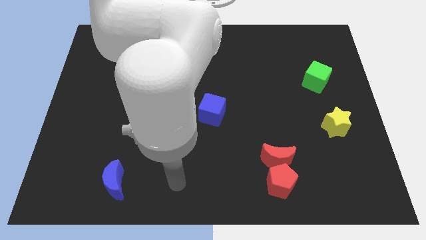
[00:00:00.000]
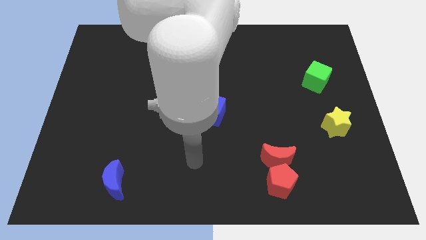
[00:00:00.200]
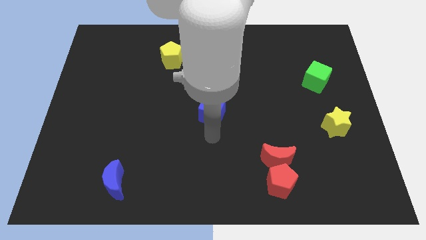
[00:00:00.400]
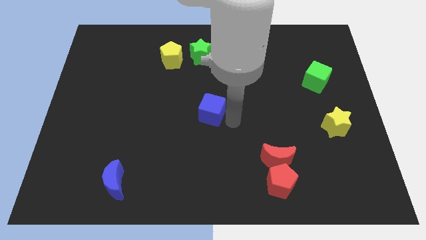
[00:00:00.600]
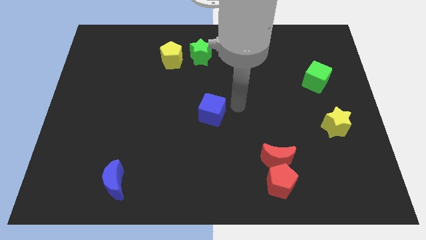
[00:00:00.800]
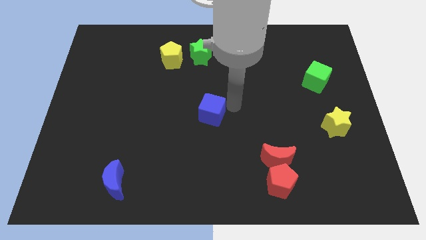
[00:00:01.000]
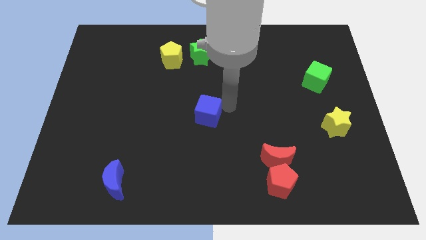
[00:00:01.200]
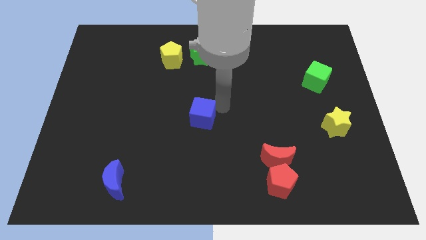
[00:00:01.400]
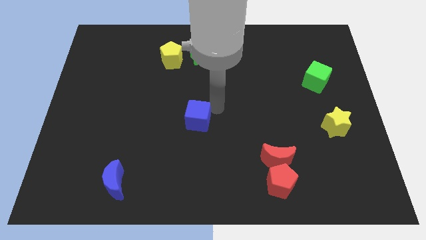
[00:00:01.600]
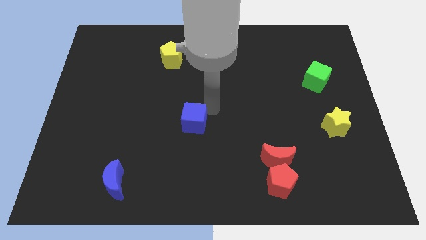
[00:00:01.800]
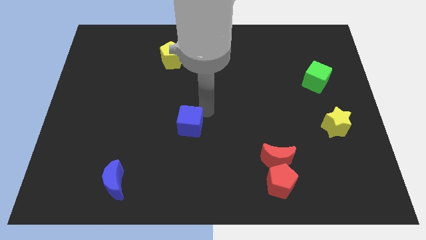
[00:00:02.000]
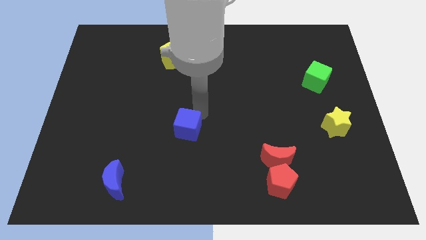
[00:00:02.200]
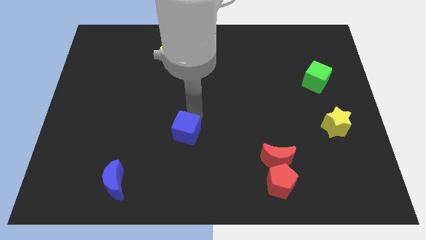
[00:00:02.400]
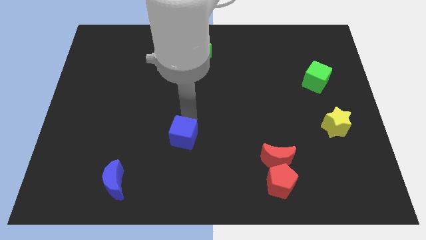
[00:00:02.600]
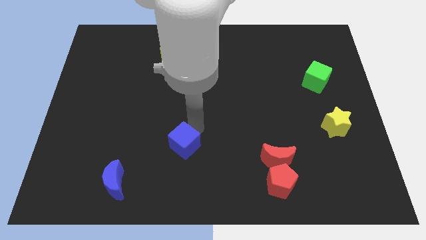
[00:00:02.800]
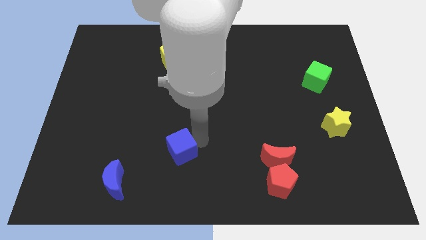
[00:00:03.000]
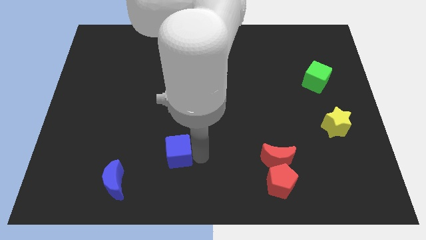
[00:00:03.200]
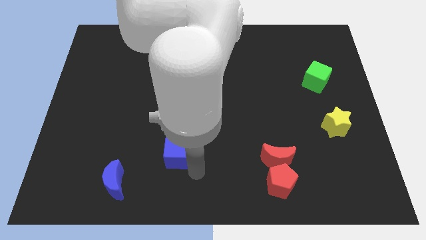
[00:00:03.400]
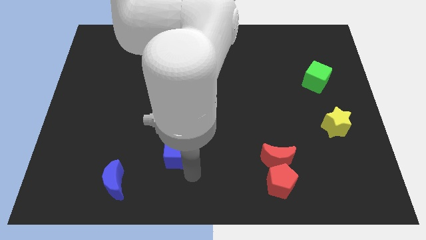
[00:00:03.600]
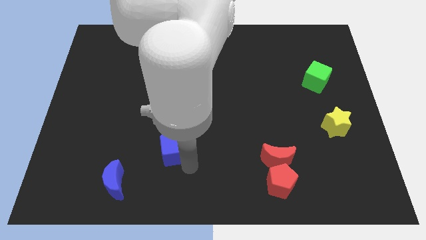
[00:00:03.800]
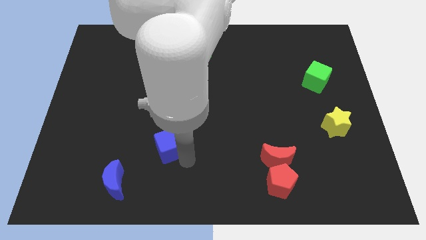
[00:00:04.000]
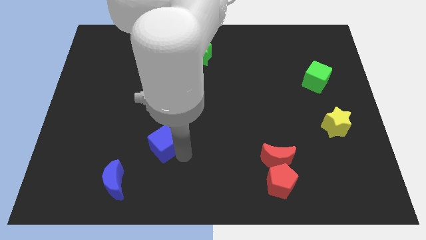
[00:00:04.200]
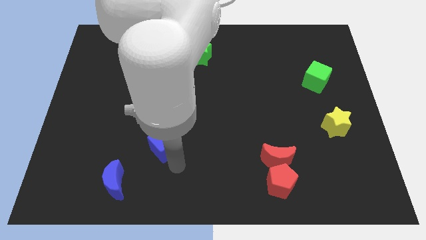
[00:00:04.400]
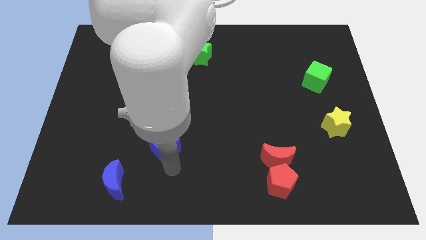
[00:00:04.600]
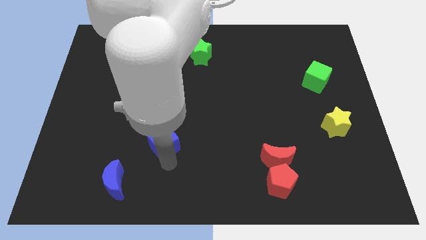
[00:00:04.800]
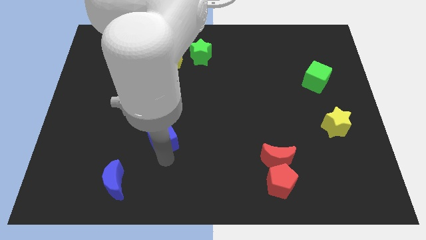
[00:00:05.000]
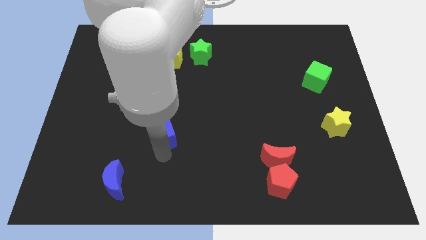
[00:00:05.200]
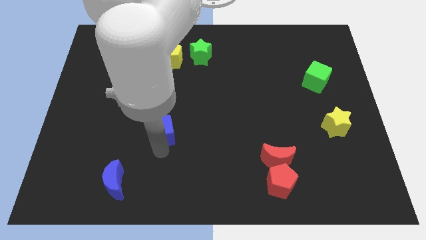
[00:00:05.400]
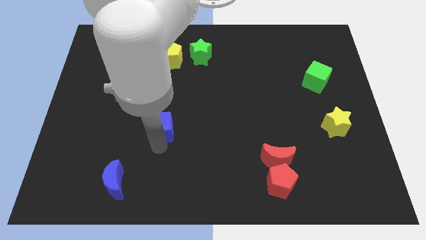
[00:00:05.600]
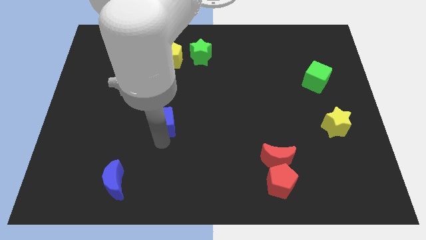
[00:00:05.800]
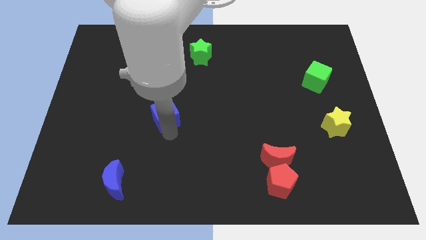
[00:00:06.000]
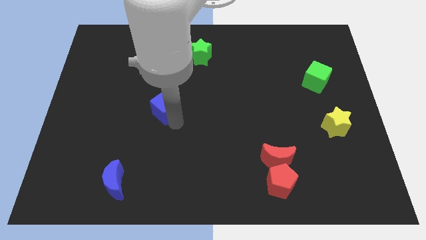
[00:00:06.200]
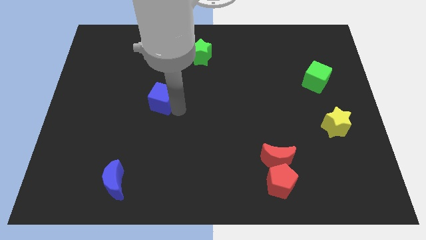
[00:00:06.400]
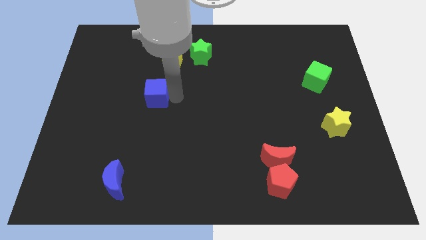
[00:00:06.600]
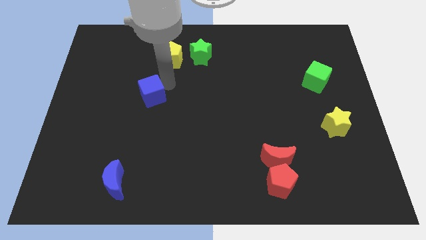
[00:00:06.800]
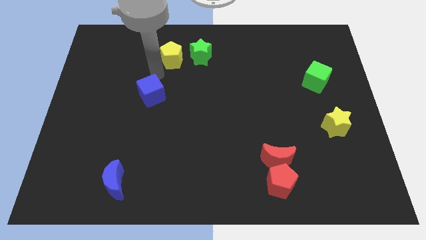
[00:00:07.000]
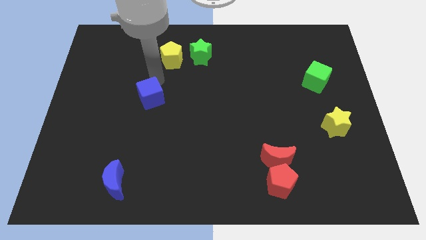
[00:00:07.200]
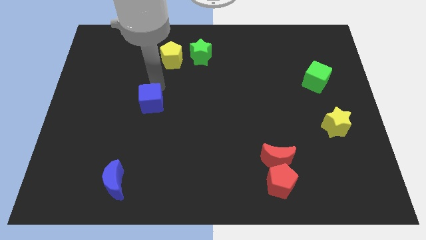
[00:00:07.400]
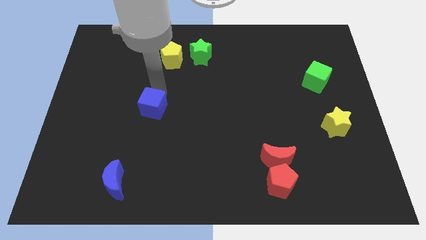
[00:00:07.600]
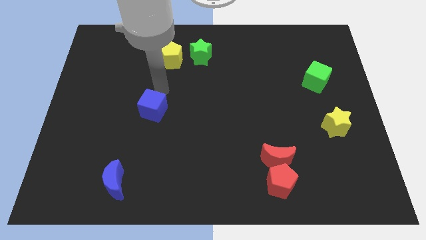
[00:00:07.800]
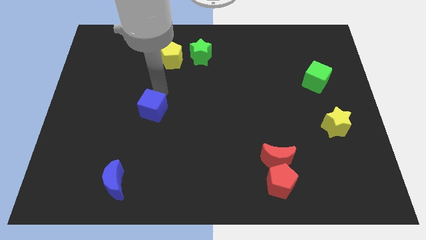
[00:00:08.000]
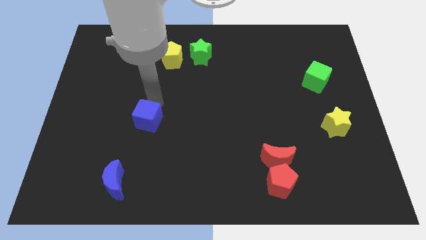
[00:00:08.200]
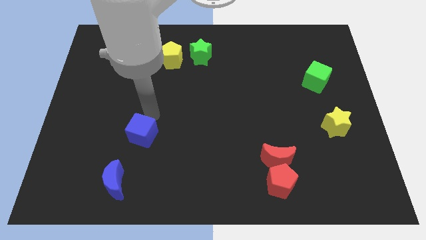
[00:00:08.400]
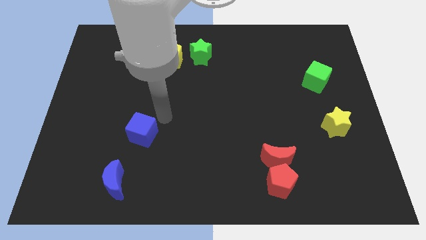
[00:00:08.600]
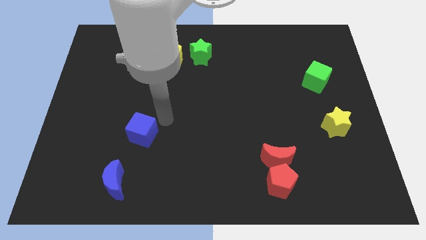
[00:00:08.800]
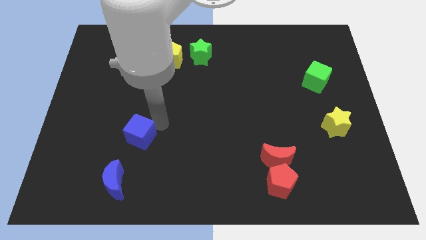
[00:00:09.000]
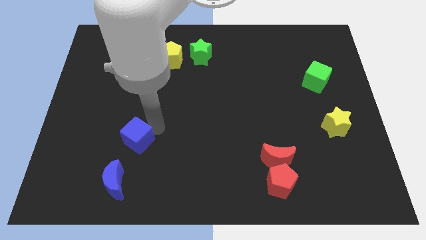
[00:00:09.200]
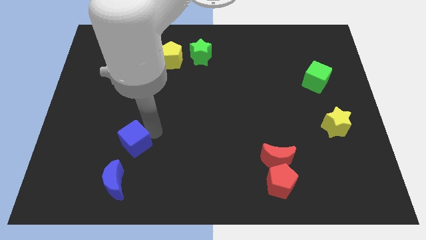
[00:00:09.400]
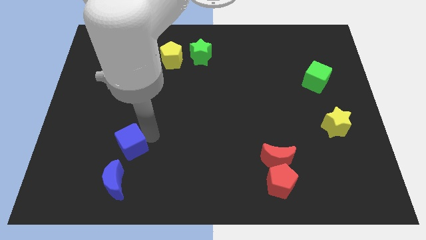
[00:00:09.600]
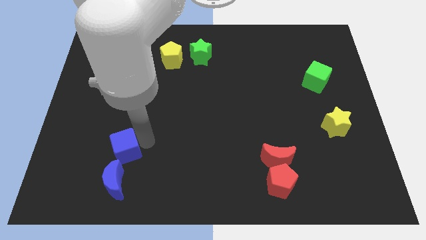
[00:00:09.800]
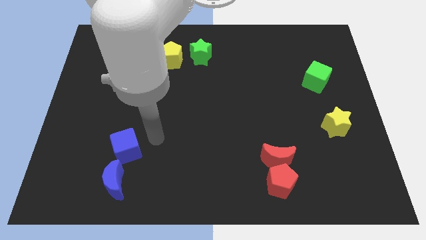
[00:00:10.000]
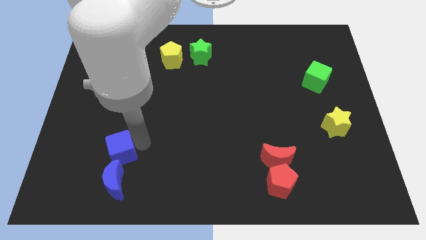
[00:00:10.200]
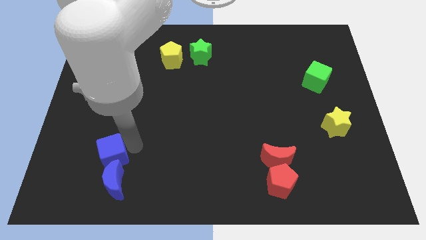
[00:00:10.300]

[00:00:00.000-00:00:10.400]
slide the blue cube to the top left of the blue moon

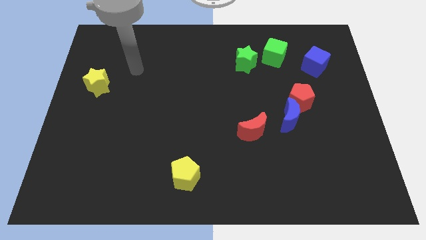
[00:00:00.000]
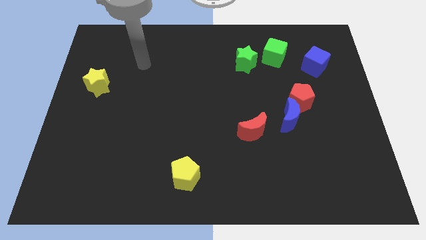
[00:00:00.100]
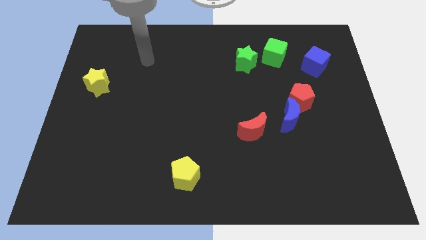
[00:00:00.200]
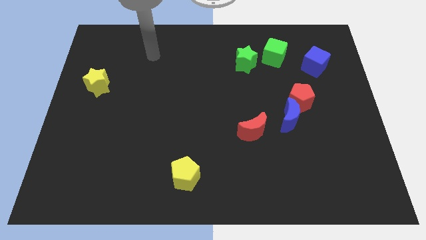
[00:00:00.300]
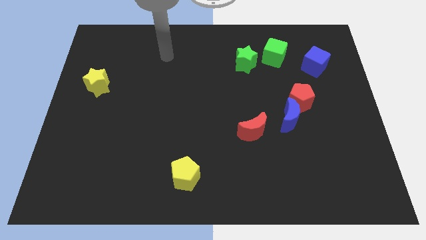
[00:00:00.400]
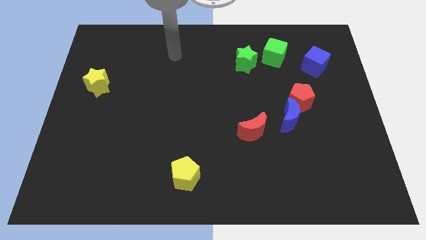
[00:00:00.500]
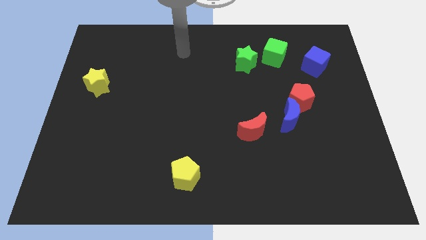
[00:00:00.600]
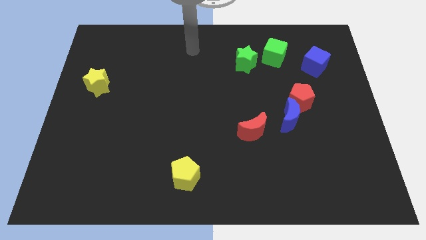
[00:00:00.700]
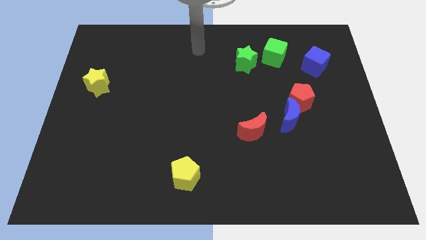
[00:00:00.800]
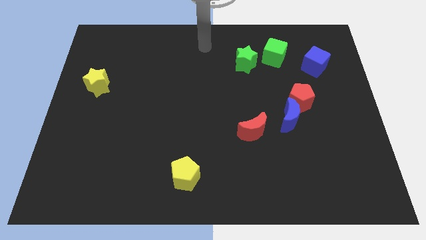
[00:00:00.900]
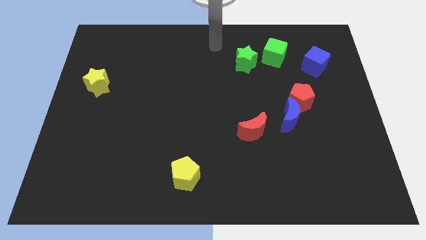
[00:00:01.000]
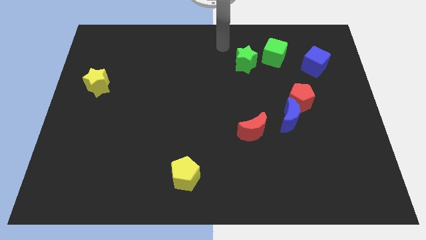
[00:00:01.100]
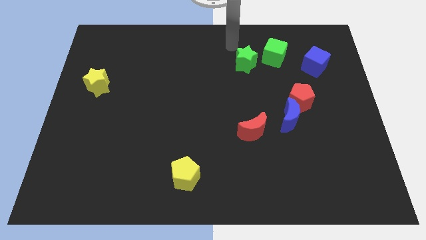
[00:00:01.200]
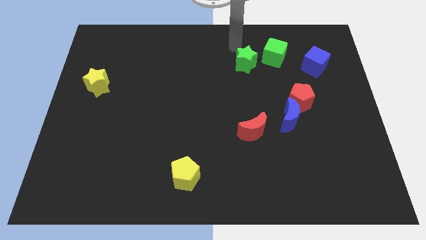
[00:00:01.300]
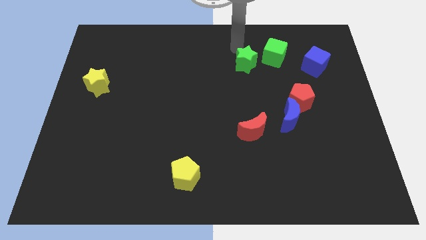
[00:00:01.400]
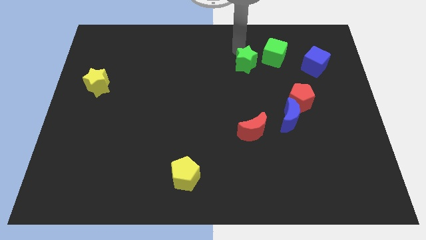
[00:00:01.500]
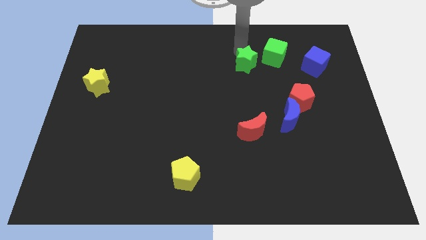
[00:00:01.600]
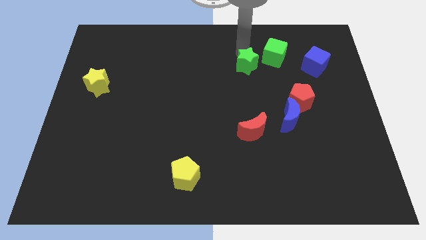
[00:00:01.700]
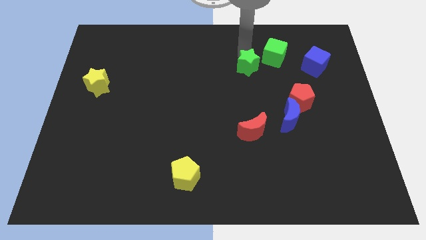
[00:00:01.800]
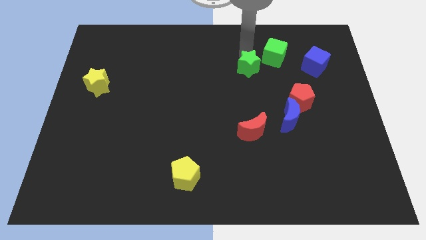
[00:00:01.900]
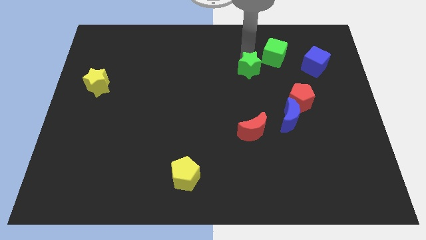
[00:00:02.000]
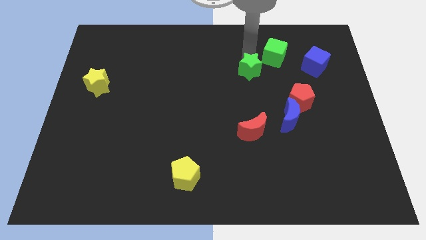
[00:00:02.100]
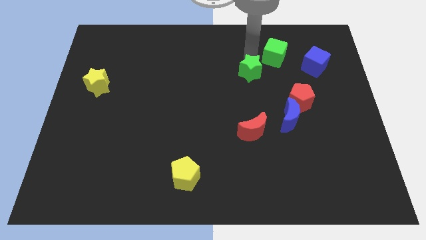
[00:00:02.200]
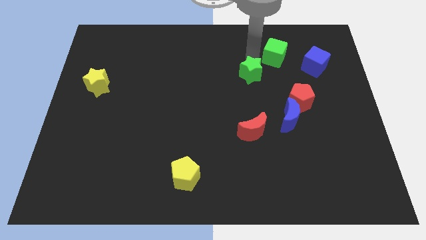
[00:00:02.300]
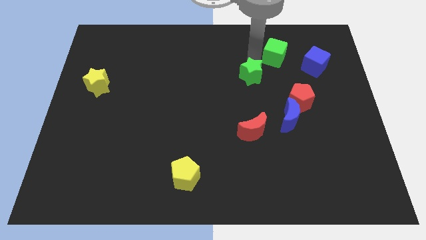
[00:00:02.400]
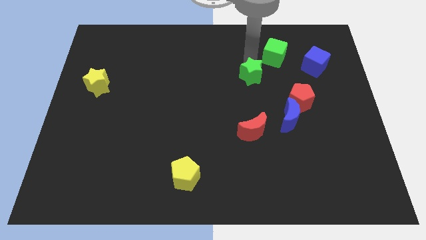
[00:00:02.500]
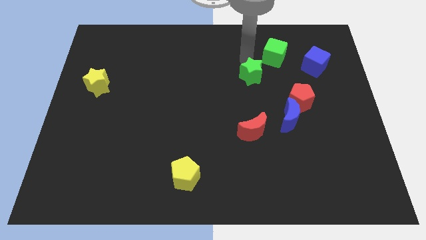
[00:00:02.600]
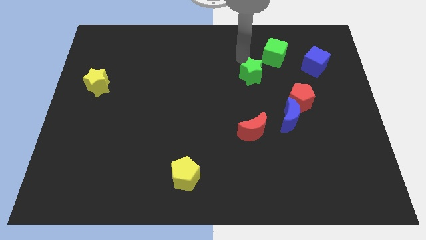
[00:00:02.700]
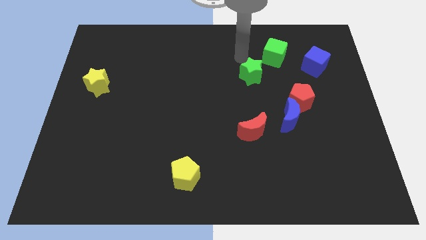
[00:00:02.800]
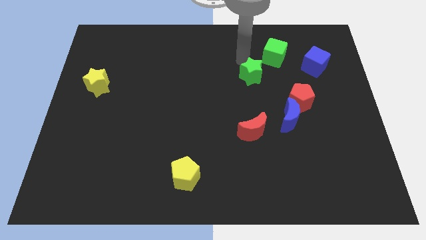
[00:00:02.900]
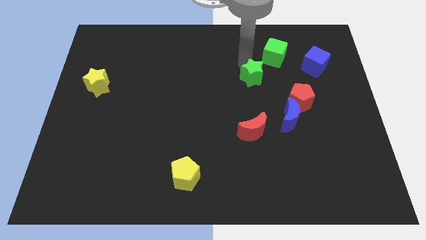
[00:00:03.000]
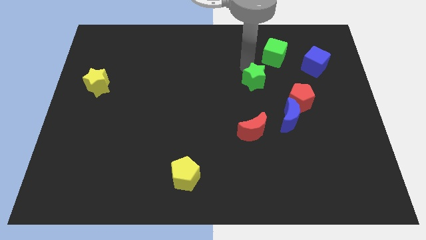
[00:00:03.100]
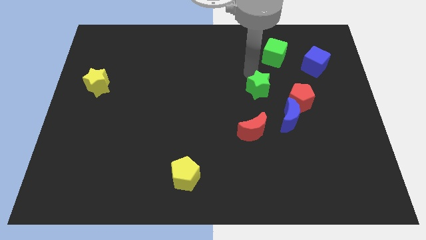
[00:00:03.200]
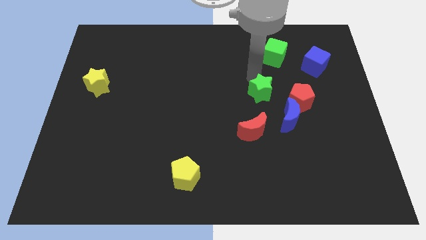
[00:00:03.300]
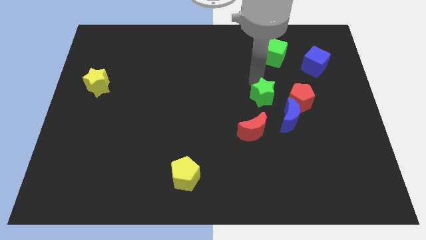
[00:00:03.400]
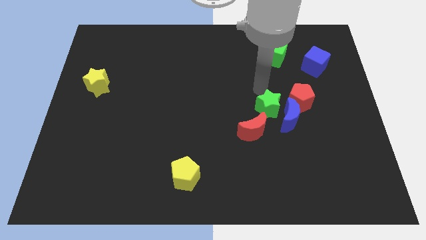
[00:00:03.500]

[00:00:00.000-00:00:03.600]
slide the green star to the top right of the red moon
